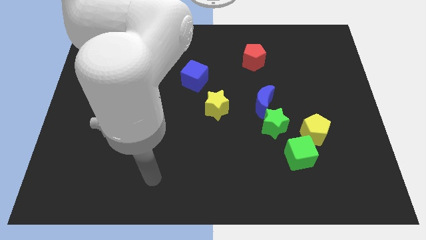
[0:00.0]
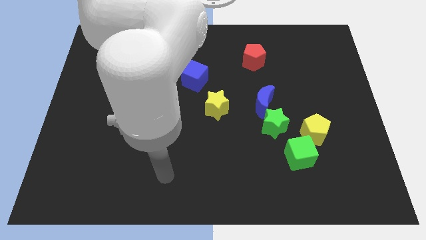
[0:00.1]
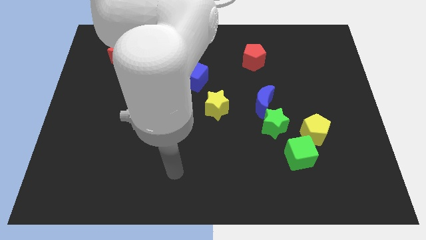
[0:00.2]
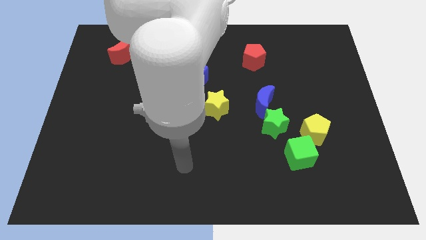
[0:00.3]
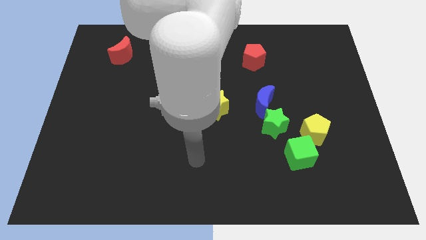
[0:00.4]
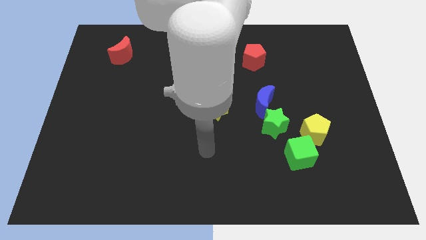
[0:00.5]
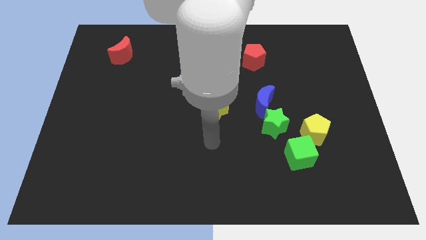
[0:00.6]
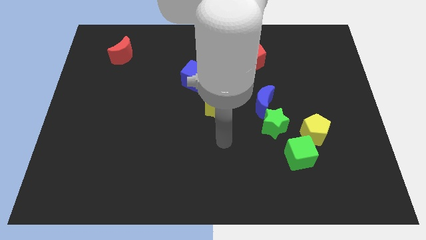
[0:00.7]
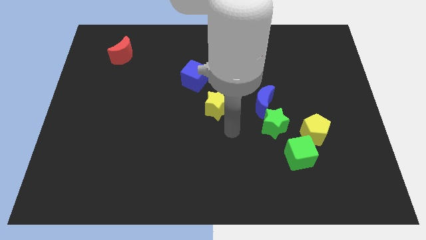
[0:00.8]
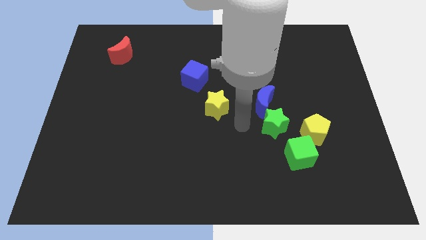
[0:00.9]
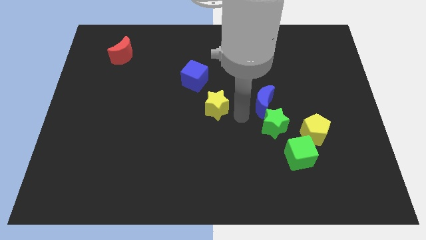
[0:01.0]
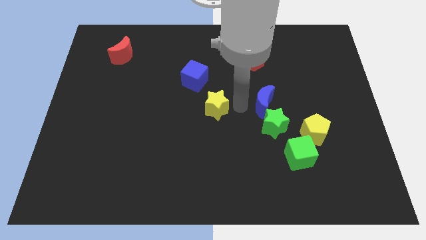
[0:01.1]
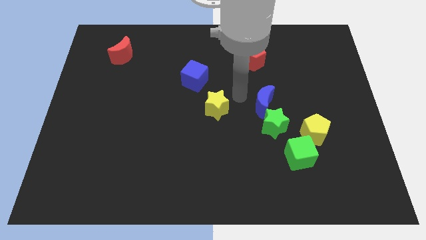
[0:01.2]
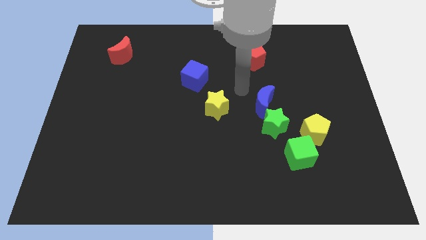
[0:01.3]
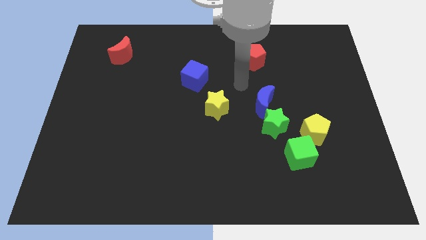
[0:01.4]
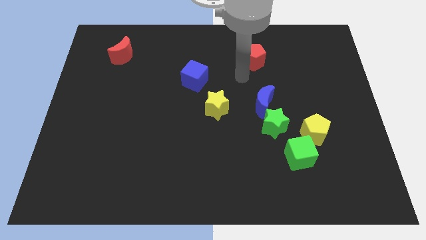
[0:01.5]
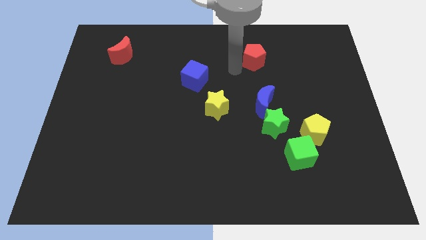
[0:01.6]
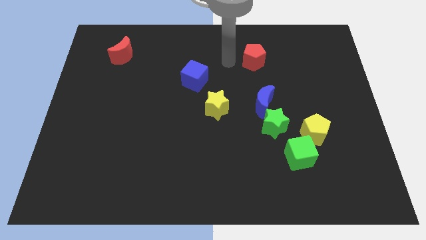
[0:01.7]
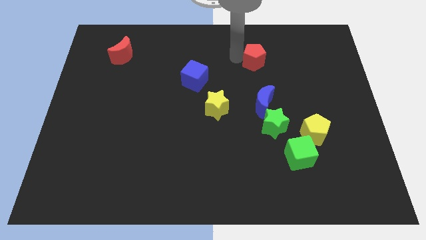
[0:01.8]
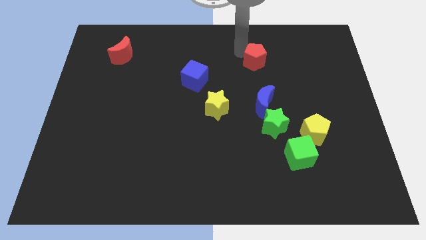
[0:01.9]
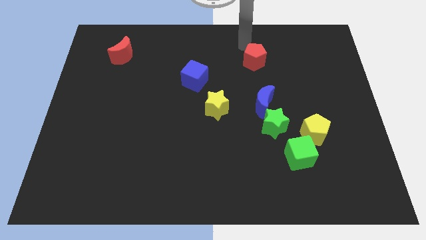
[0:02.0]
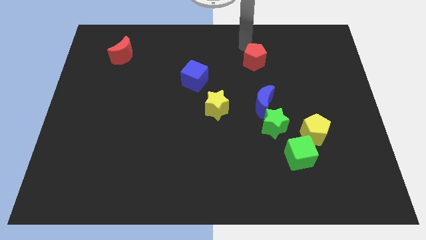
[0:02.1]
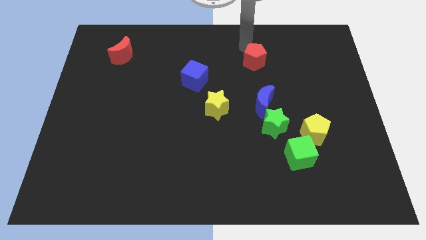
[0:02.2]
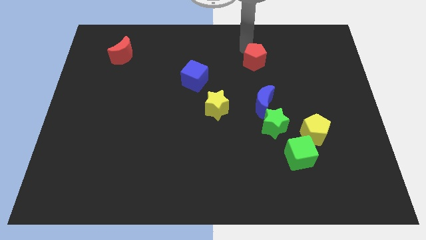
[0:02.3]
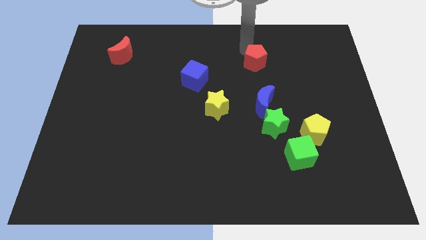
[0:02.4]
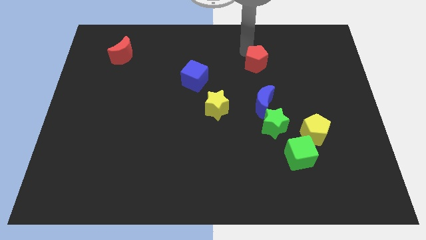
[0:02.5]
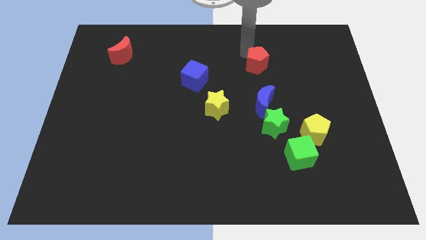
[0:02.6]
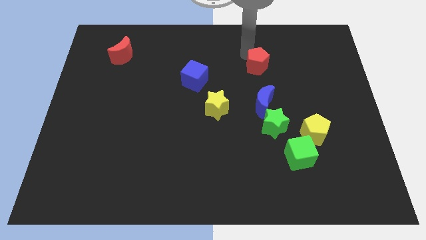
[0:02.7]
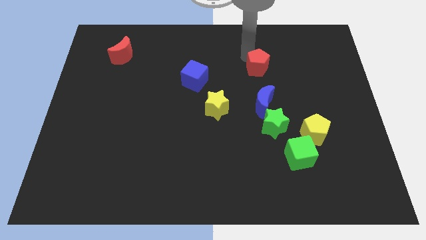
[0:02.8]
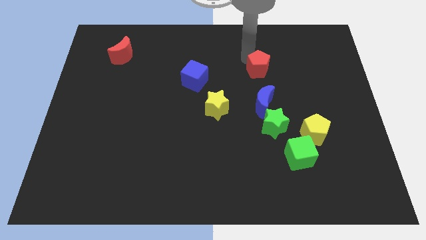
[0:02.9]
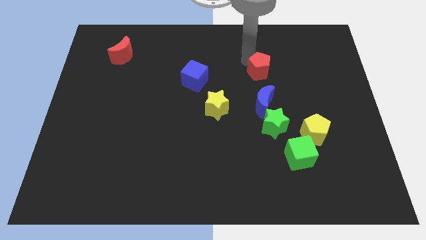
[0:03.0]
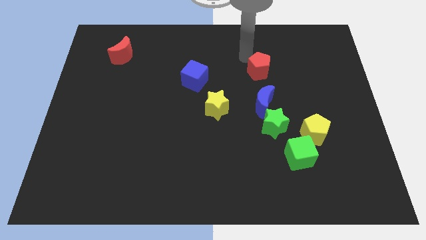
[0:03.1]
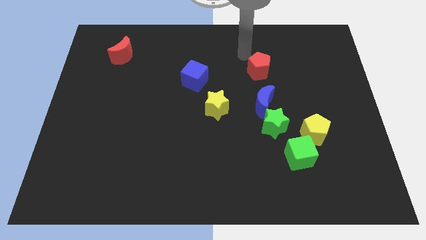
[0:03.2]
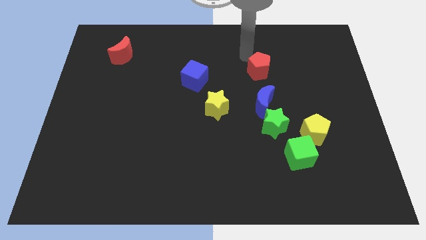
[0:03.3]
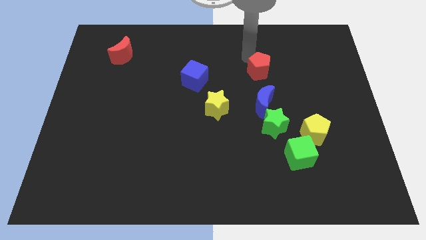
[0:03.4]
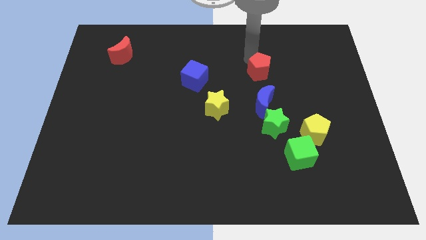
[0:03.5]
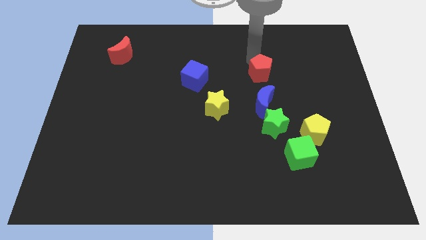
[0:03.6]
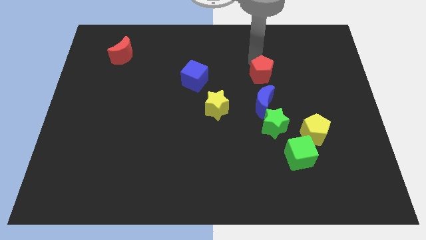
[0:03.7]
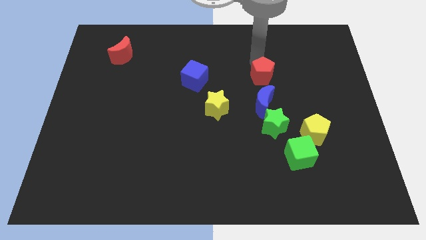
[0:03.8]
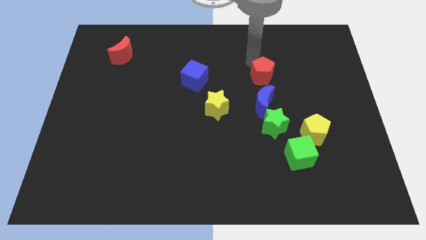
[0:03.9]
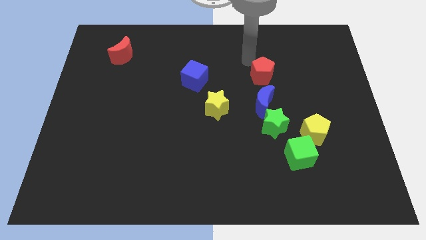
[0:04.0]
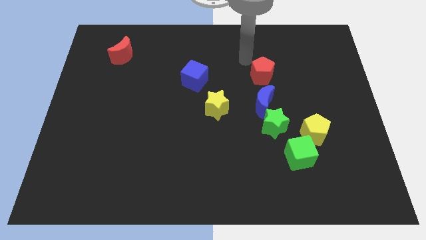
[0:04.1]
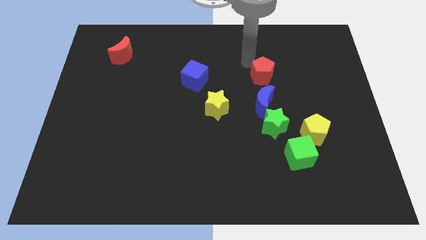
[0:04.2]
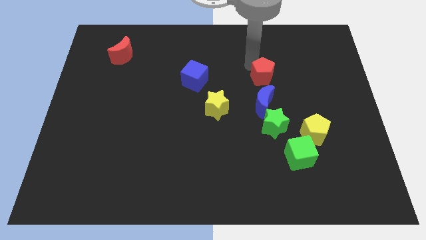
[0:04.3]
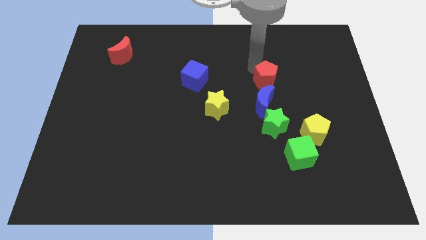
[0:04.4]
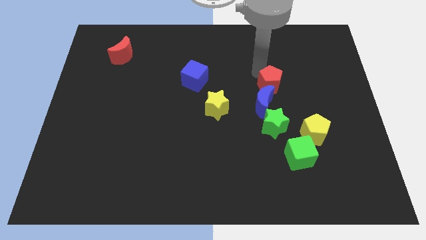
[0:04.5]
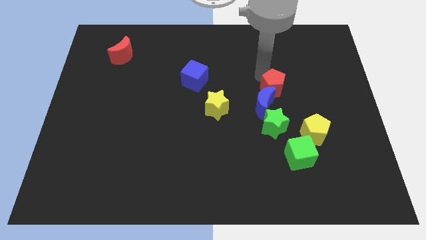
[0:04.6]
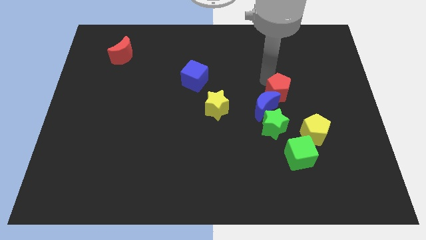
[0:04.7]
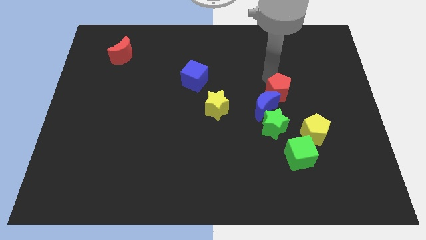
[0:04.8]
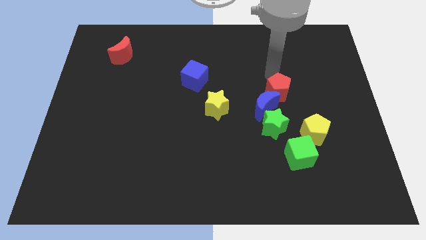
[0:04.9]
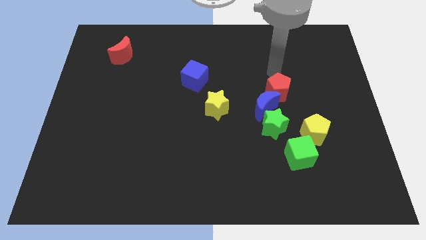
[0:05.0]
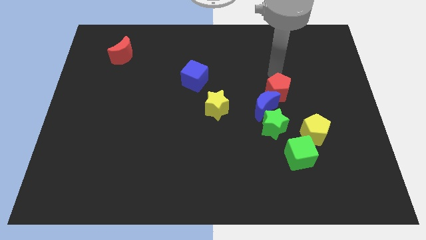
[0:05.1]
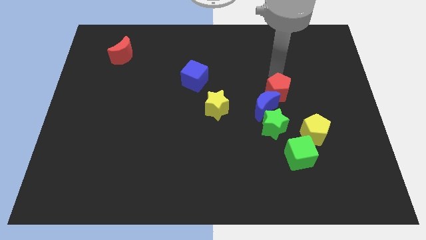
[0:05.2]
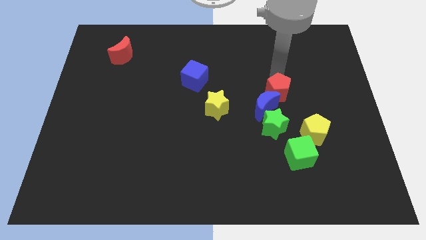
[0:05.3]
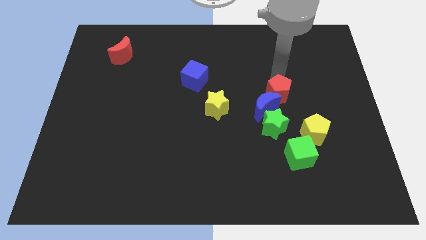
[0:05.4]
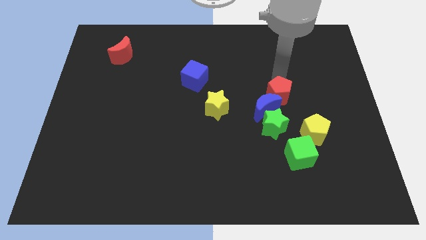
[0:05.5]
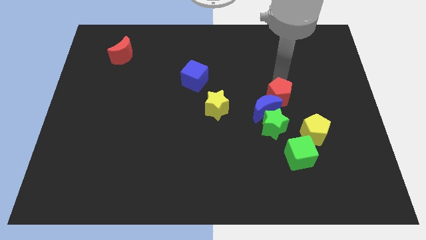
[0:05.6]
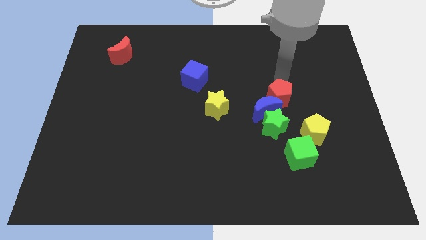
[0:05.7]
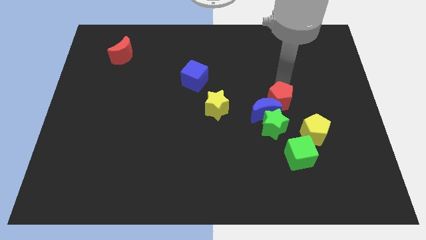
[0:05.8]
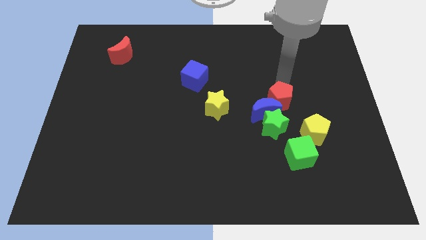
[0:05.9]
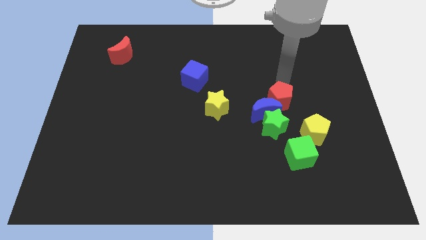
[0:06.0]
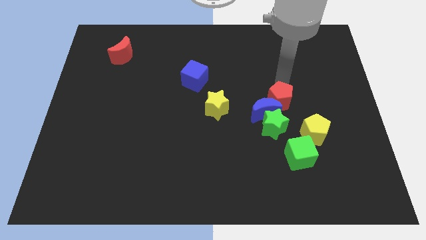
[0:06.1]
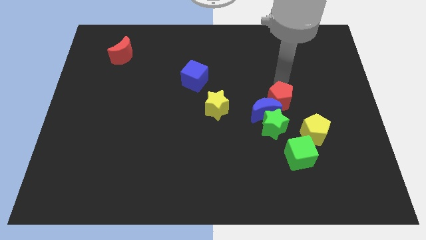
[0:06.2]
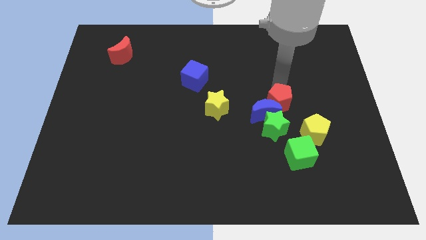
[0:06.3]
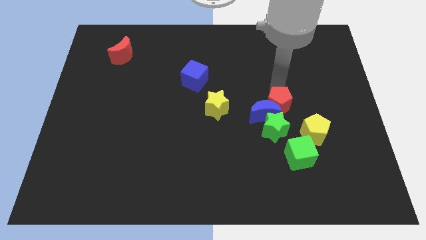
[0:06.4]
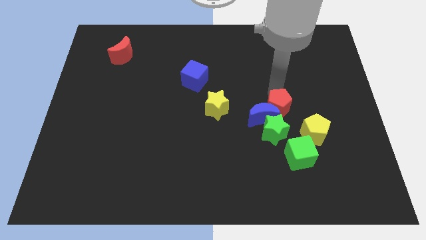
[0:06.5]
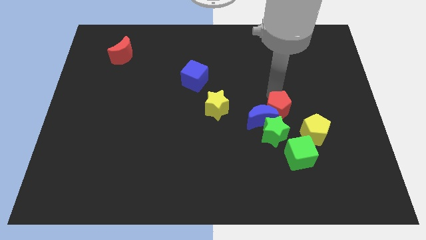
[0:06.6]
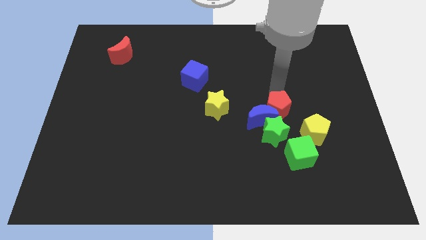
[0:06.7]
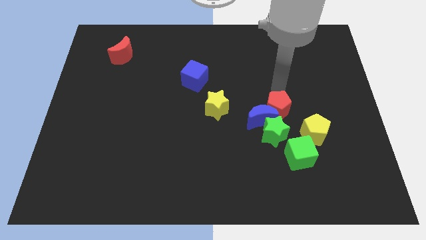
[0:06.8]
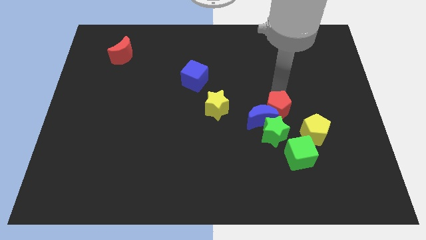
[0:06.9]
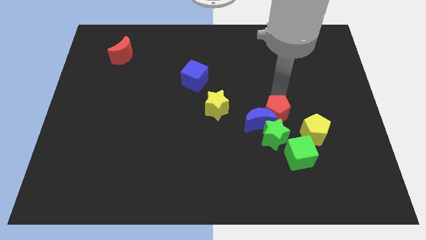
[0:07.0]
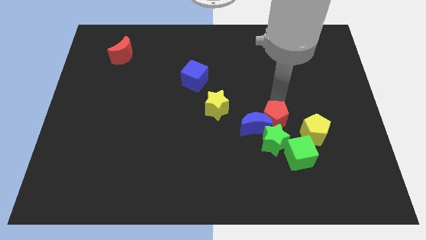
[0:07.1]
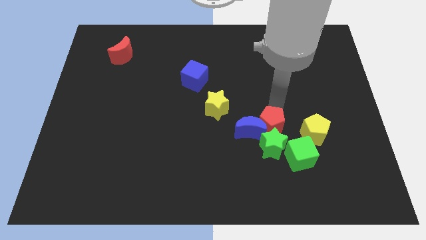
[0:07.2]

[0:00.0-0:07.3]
move the red pentagon close to the green star

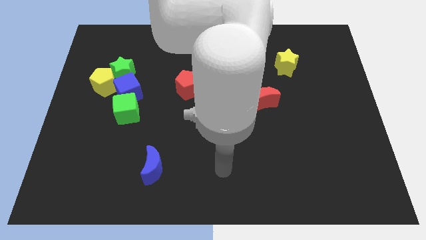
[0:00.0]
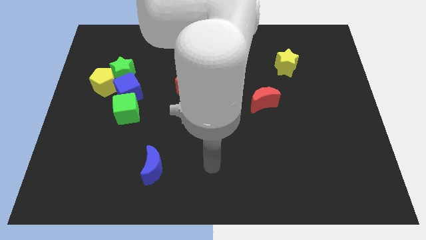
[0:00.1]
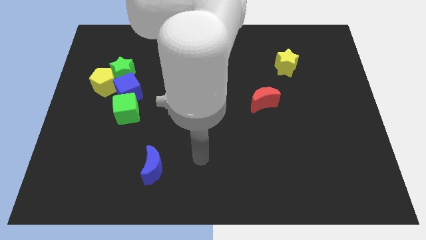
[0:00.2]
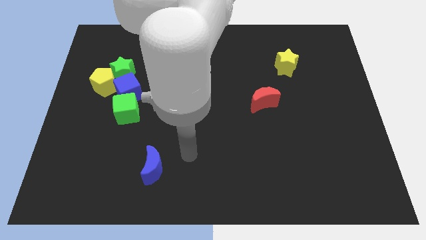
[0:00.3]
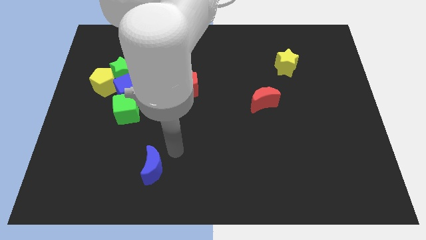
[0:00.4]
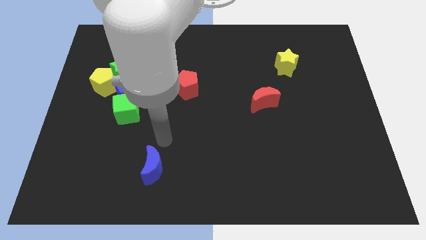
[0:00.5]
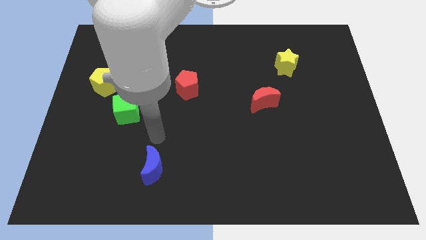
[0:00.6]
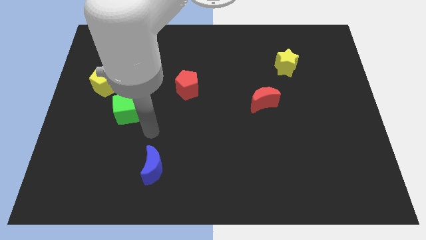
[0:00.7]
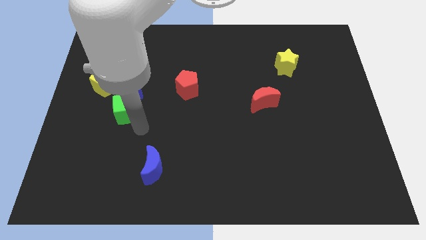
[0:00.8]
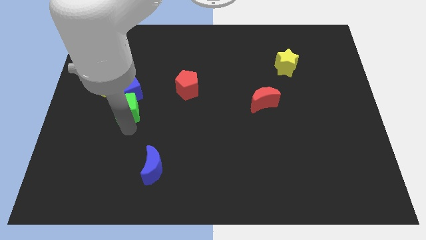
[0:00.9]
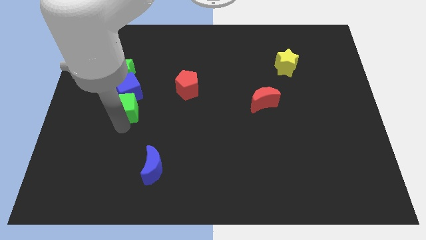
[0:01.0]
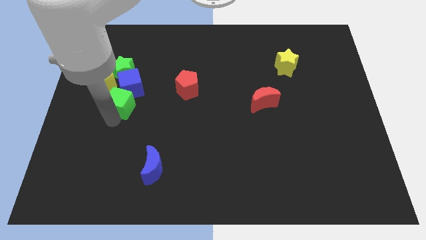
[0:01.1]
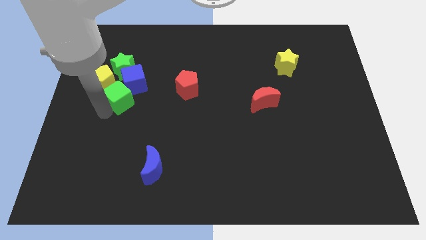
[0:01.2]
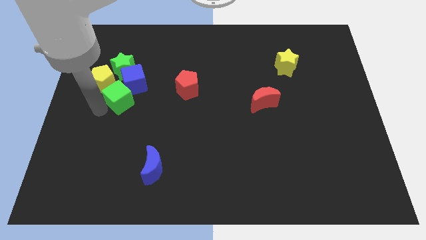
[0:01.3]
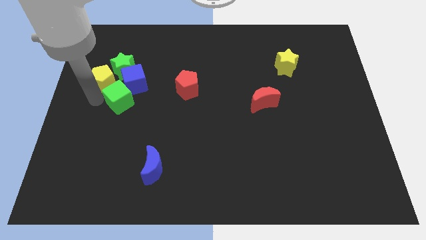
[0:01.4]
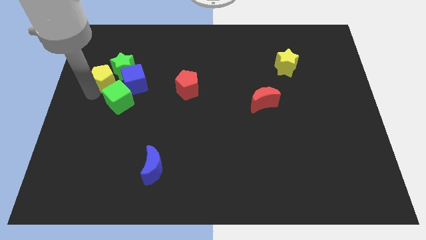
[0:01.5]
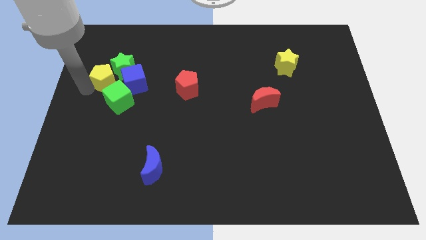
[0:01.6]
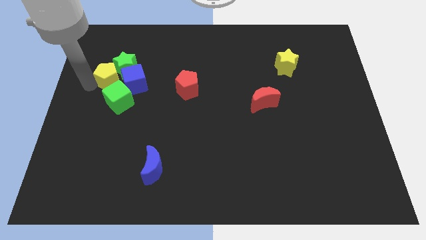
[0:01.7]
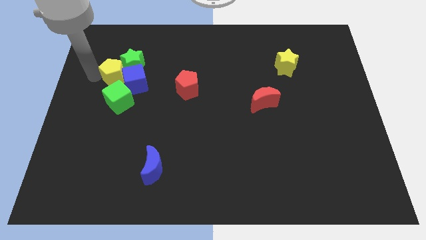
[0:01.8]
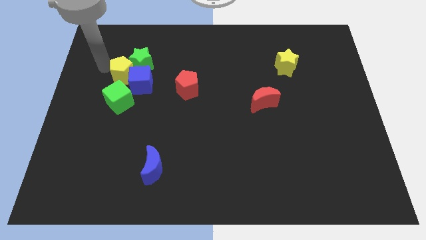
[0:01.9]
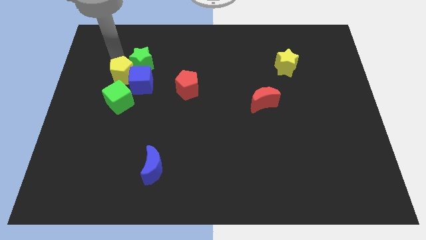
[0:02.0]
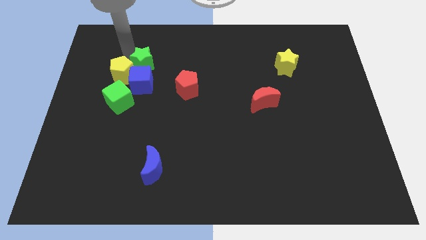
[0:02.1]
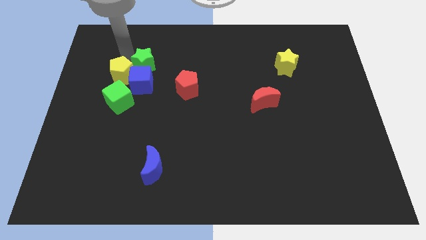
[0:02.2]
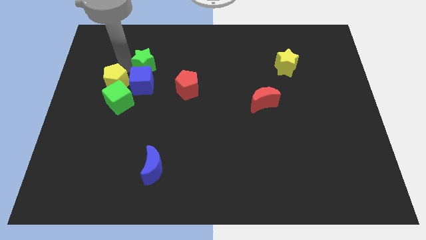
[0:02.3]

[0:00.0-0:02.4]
push the yellow pentagon close to the green cube
